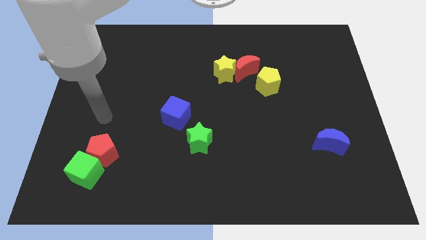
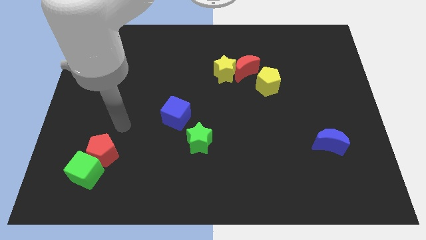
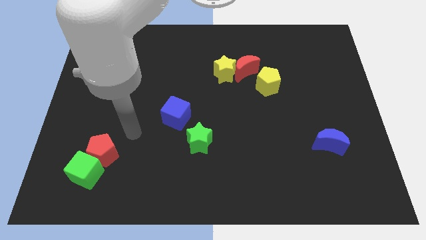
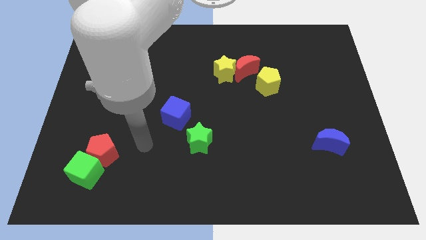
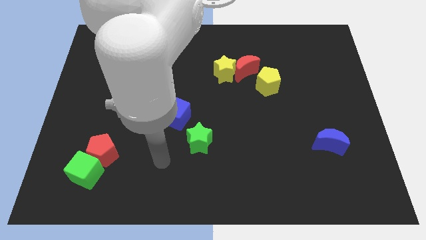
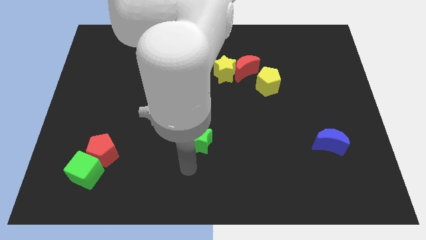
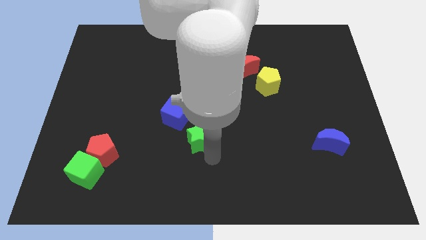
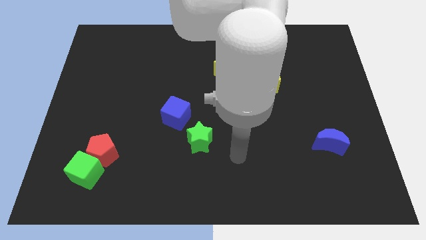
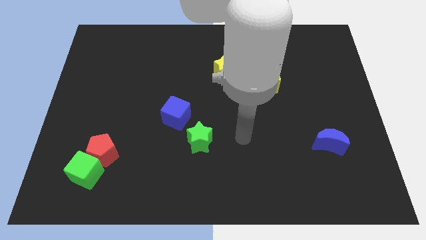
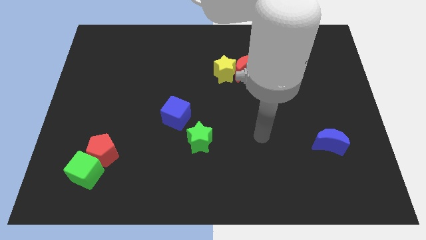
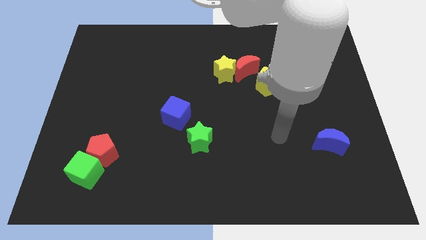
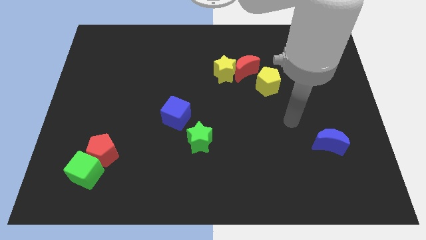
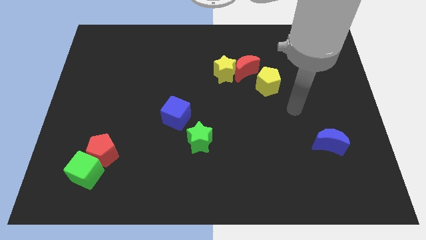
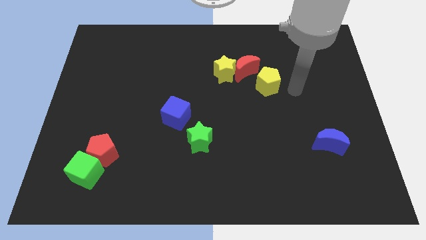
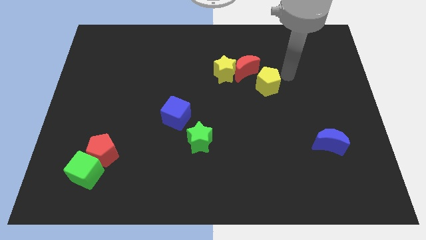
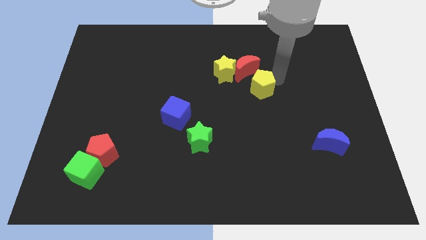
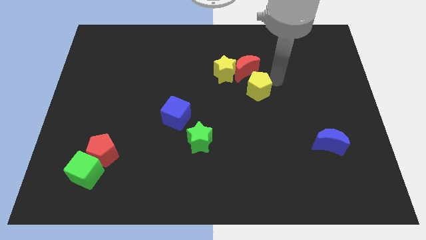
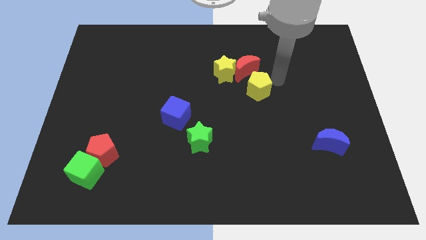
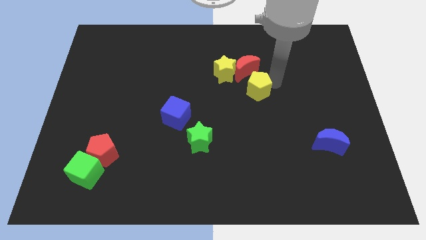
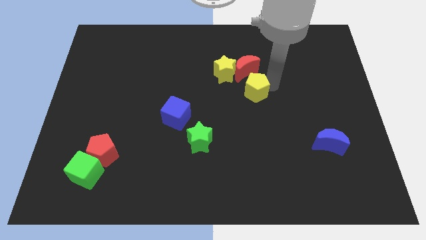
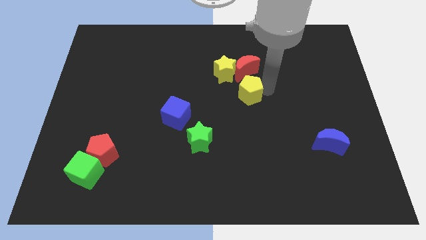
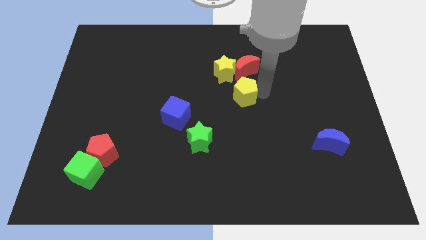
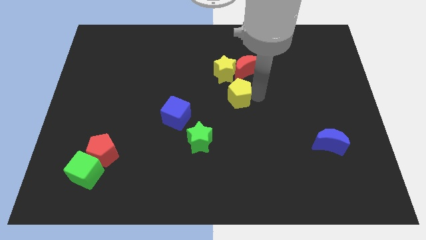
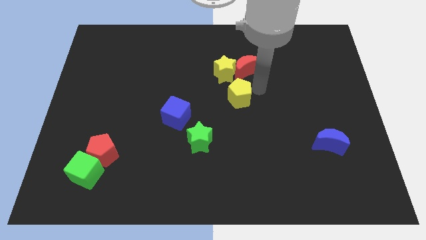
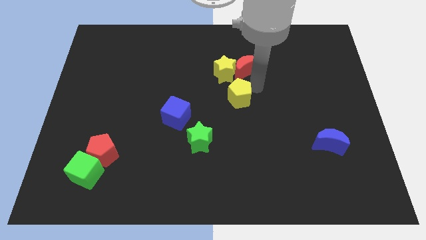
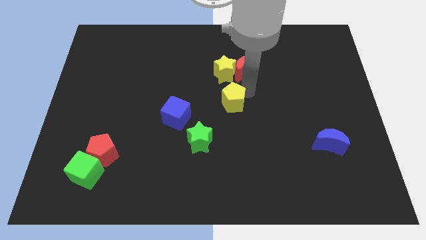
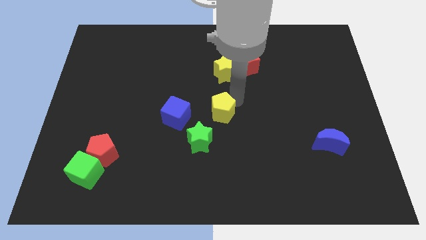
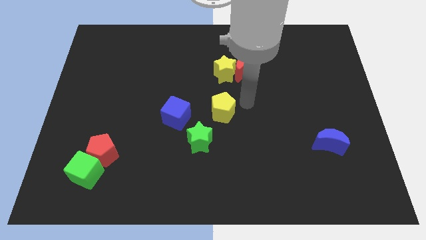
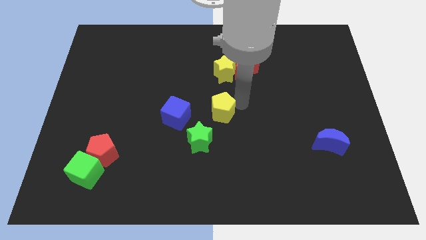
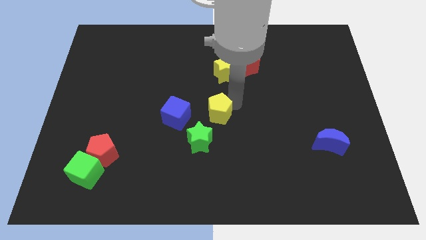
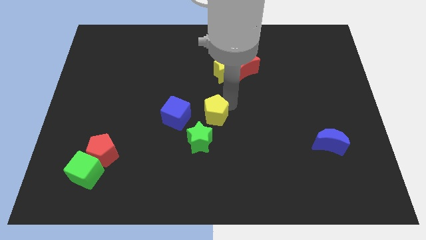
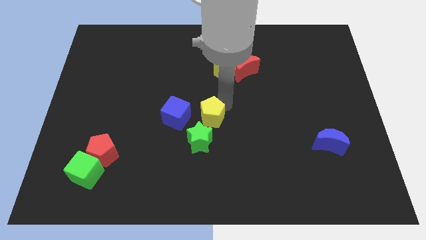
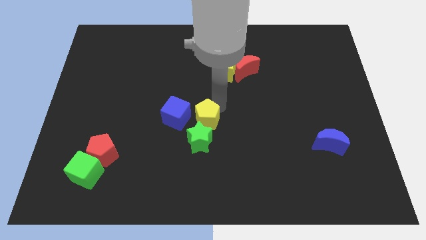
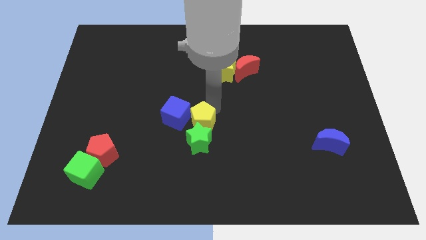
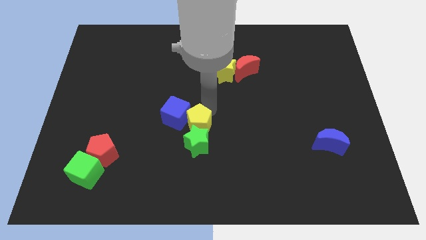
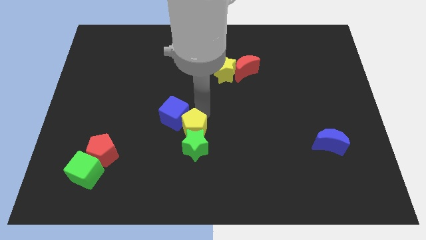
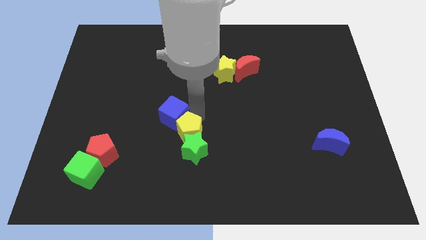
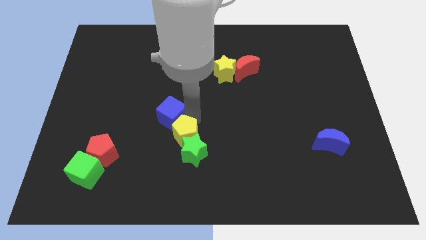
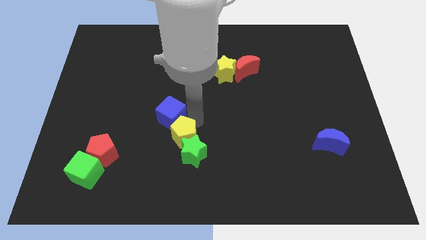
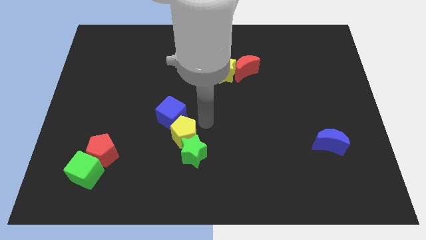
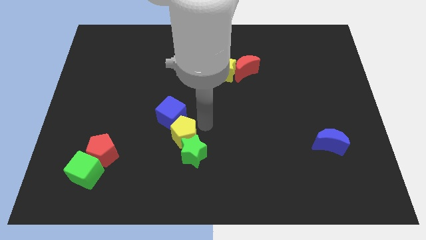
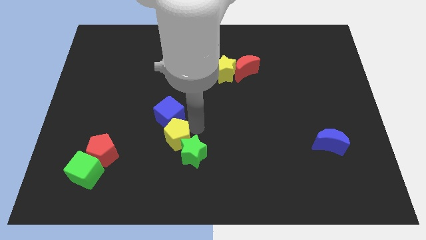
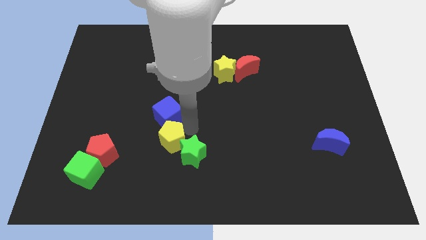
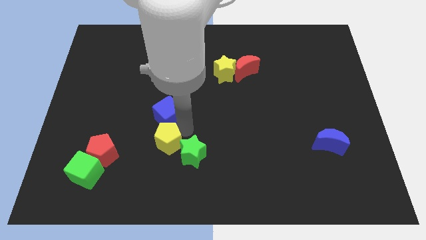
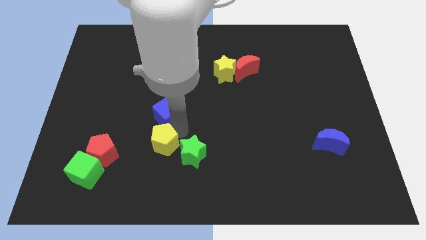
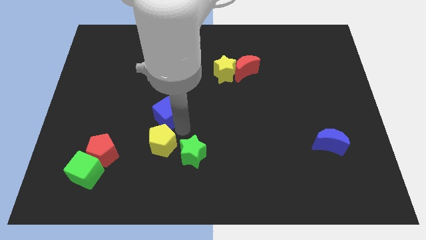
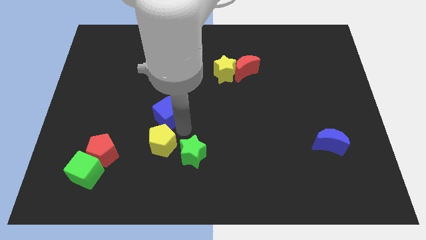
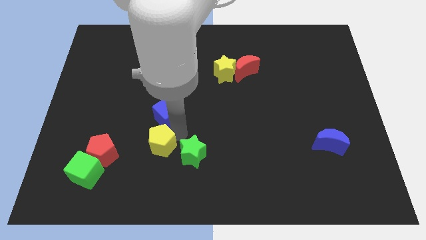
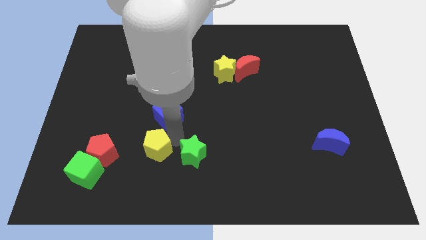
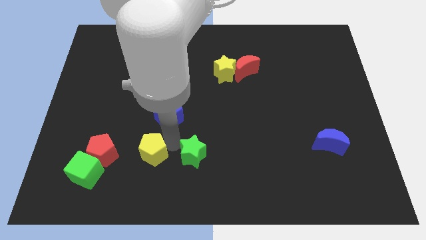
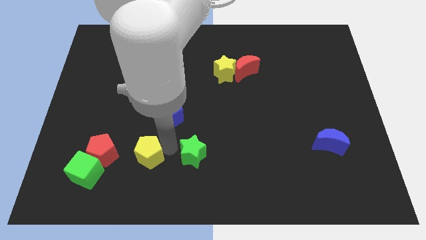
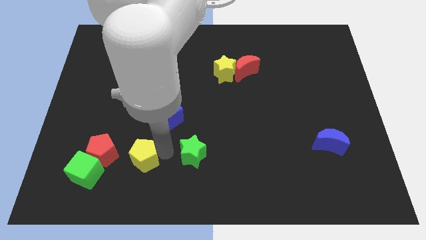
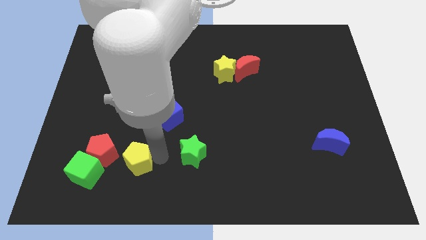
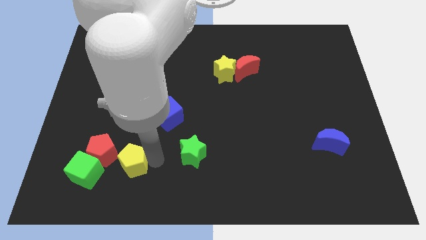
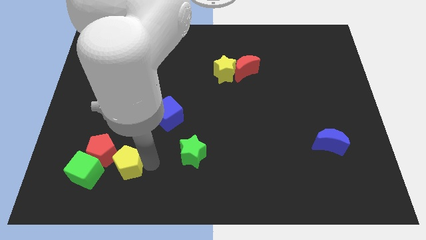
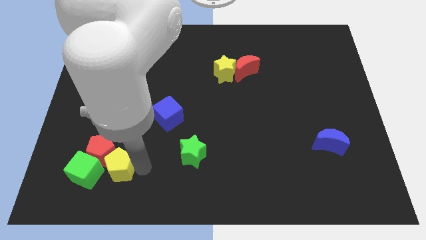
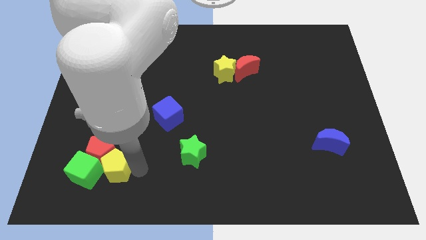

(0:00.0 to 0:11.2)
push the yellow pentagon to the green cube

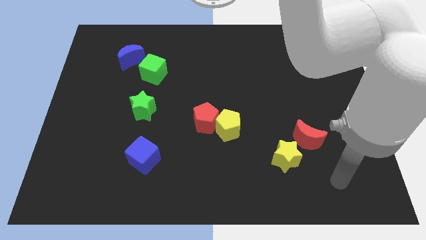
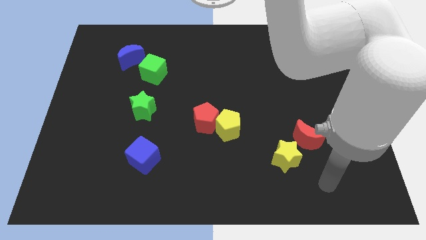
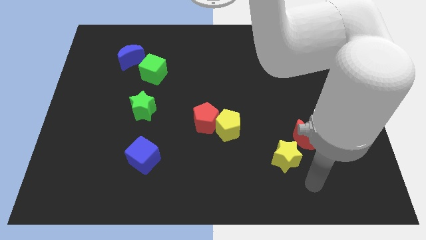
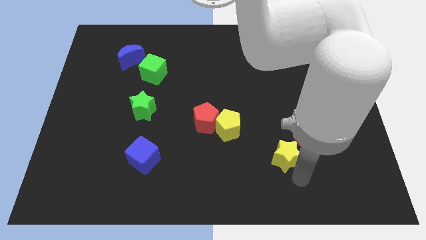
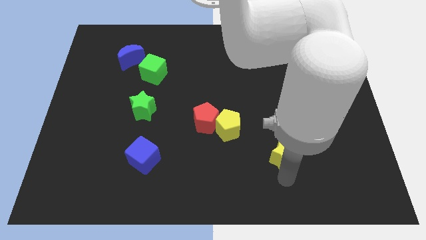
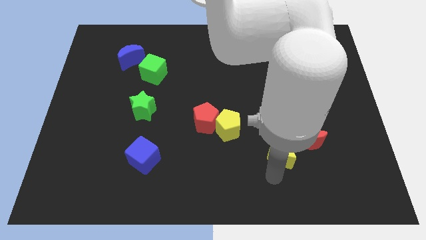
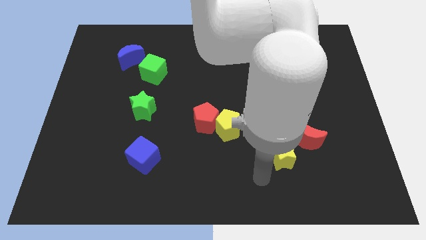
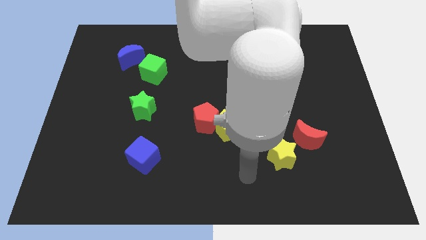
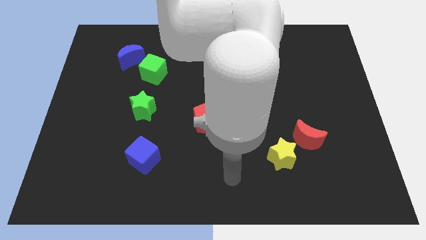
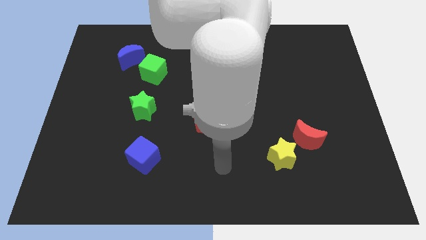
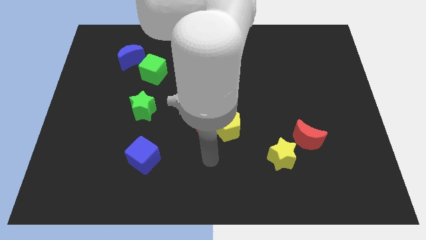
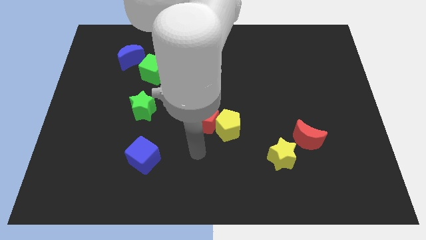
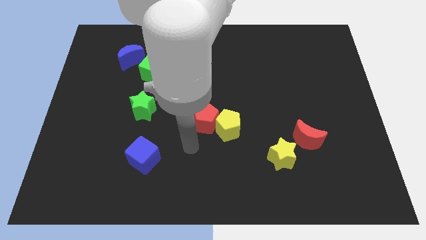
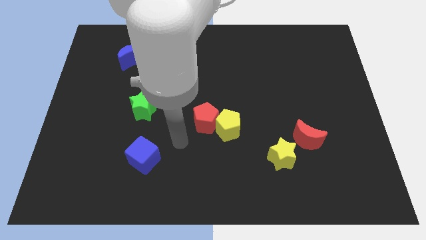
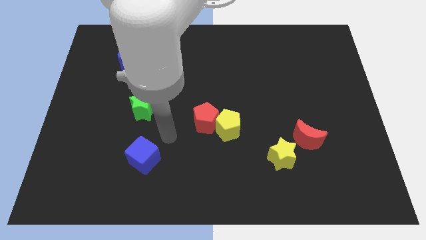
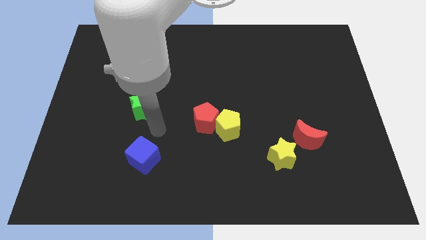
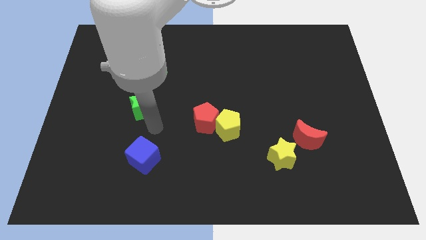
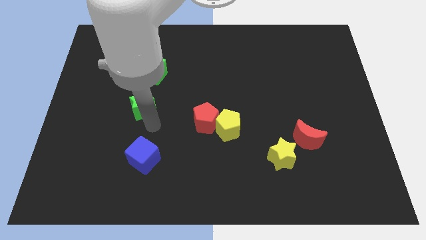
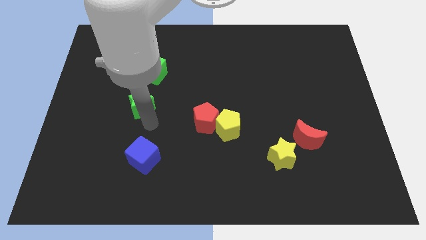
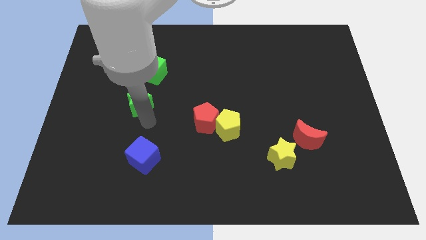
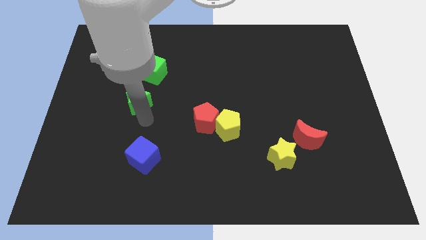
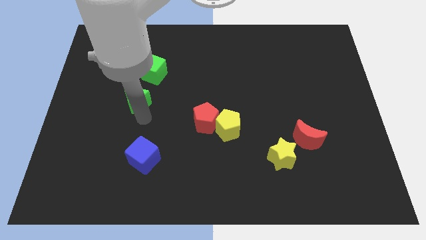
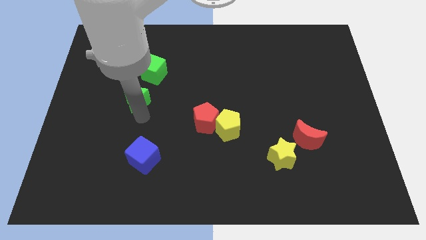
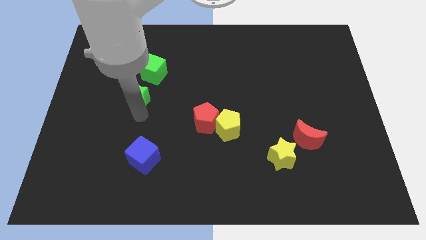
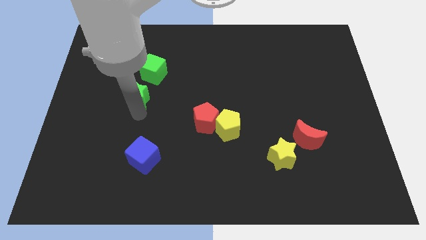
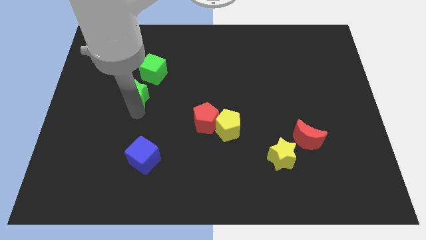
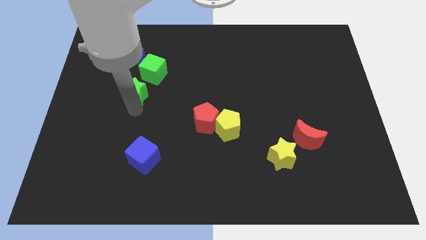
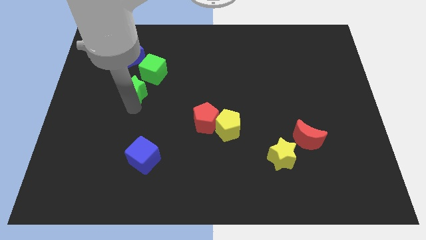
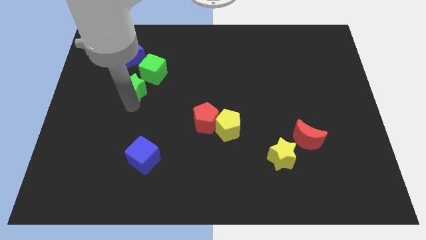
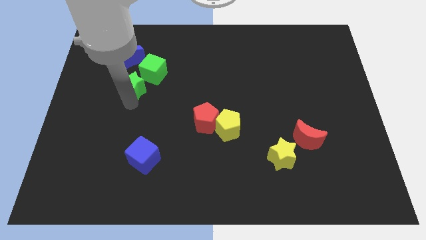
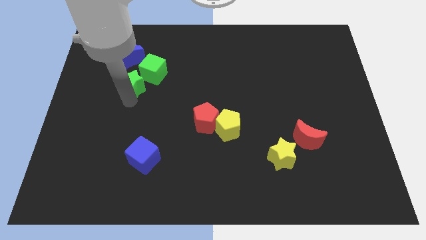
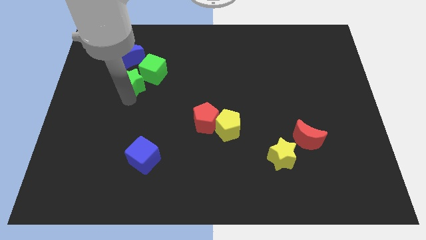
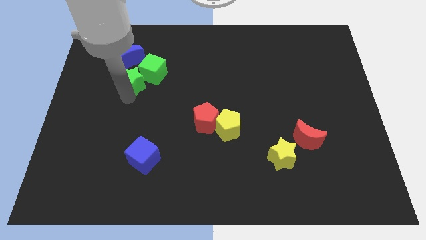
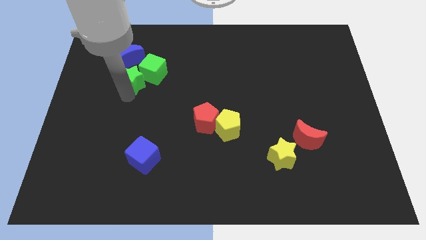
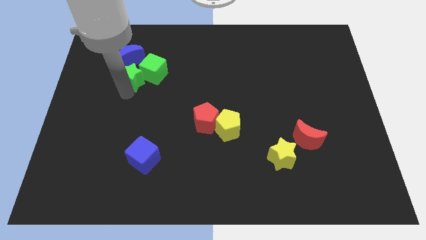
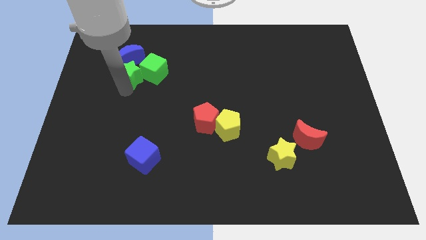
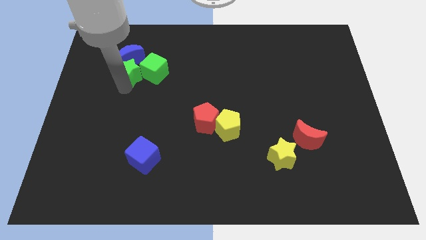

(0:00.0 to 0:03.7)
put the green star to the blue moon
